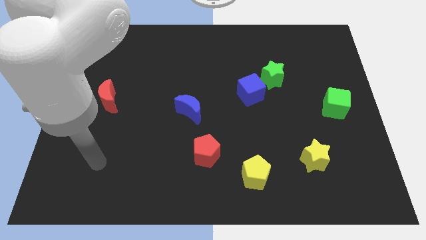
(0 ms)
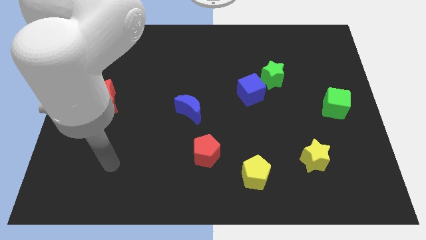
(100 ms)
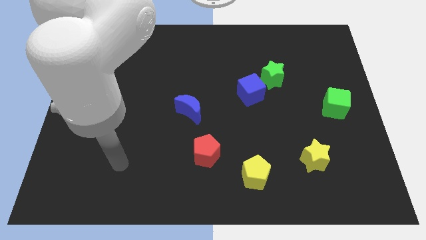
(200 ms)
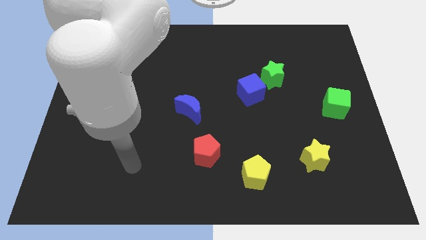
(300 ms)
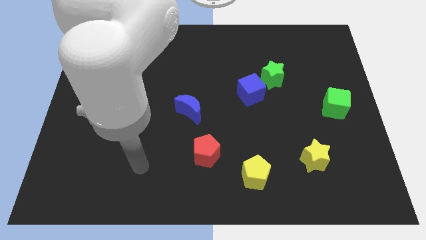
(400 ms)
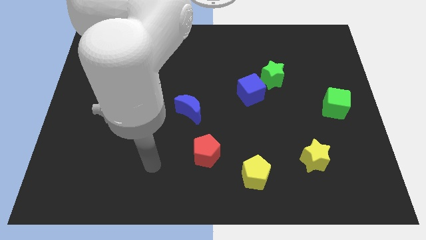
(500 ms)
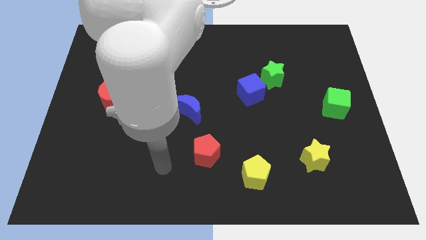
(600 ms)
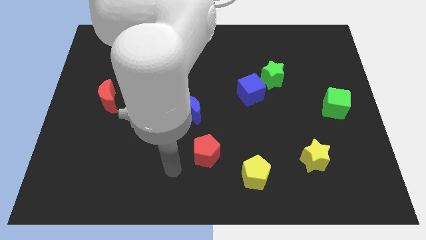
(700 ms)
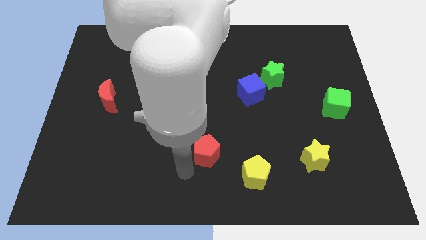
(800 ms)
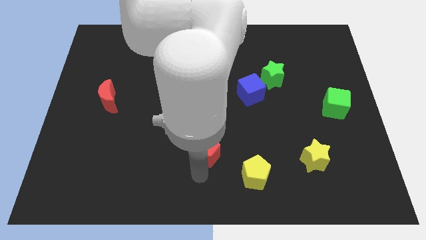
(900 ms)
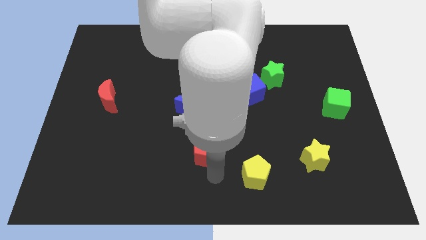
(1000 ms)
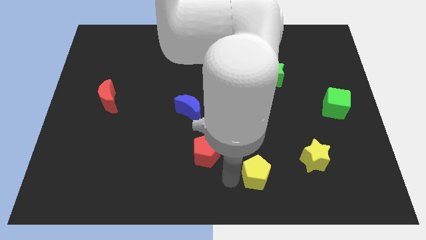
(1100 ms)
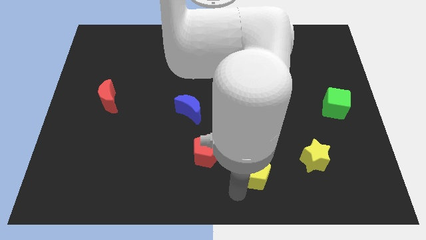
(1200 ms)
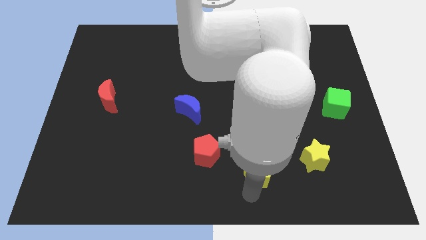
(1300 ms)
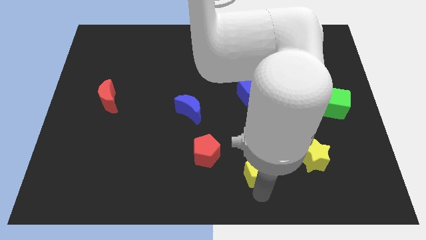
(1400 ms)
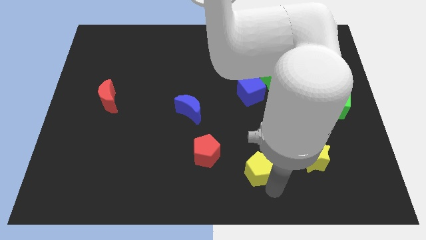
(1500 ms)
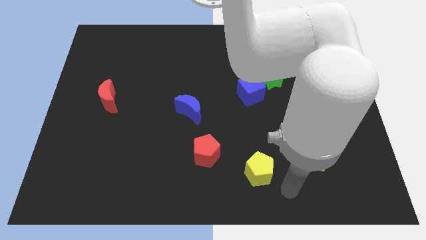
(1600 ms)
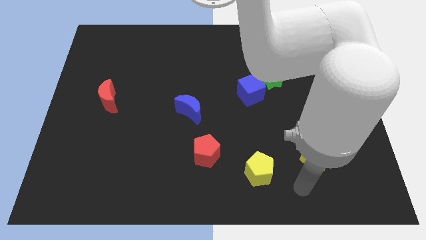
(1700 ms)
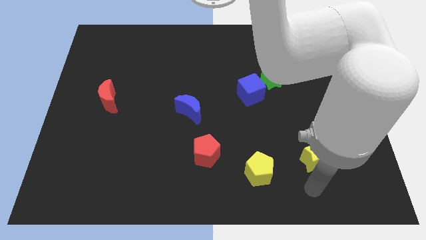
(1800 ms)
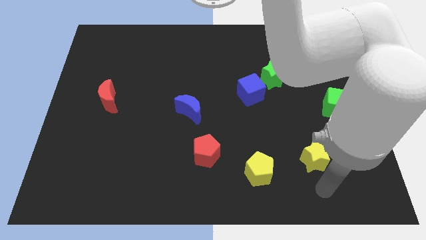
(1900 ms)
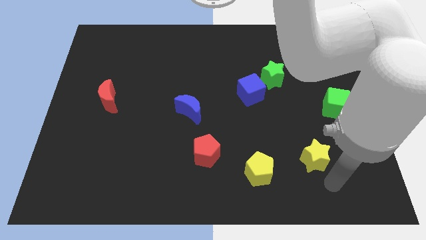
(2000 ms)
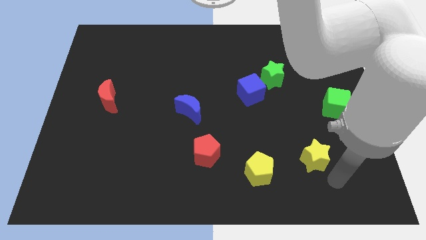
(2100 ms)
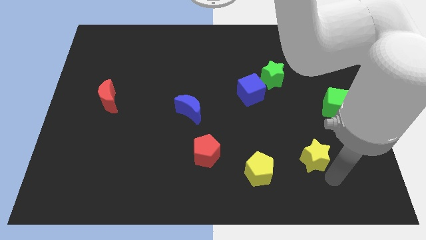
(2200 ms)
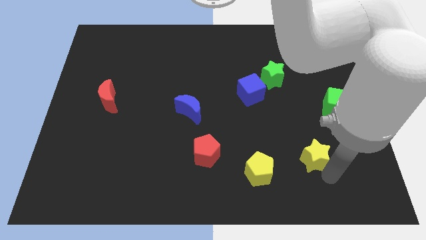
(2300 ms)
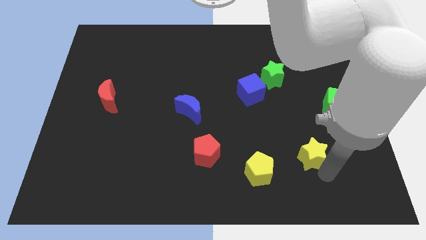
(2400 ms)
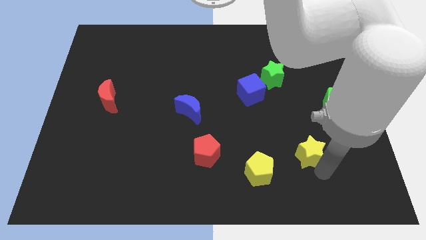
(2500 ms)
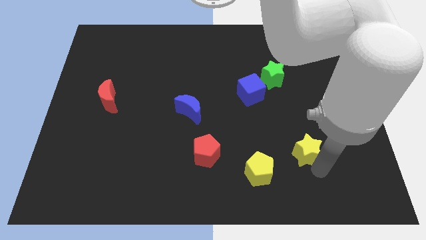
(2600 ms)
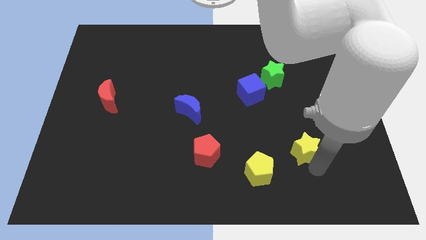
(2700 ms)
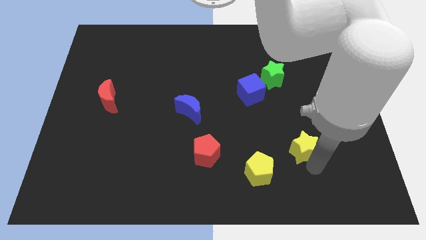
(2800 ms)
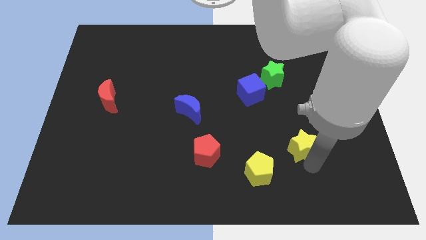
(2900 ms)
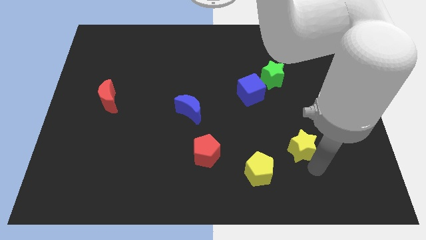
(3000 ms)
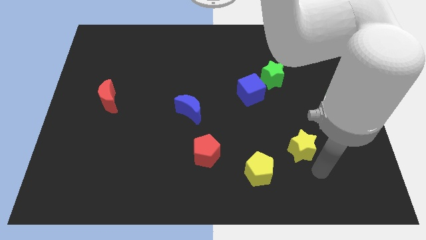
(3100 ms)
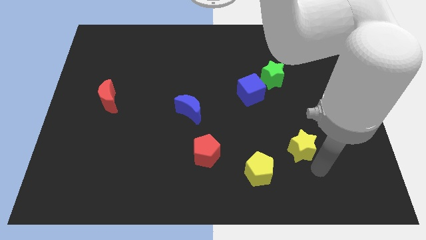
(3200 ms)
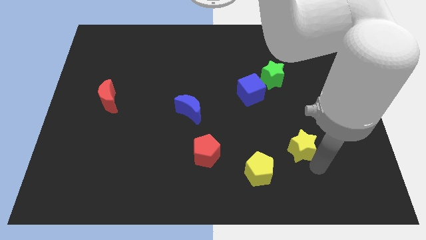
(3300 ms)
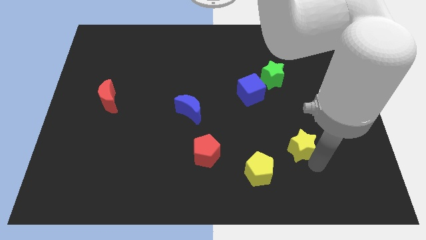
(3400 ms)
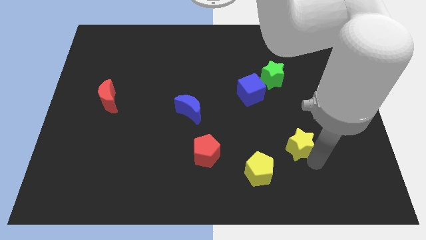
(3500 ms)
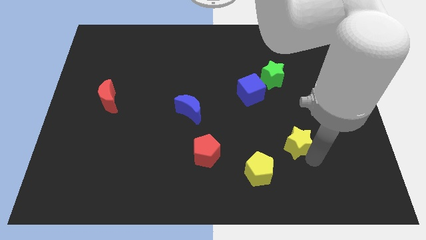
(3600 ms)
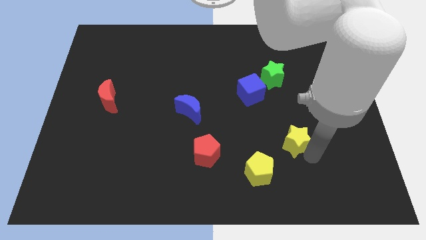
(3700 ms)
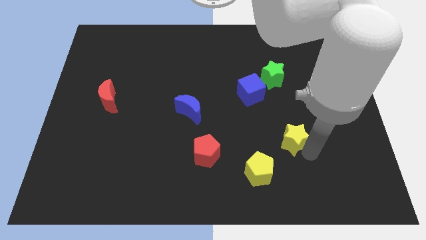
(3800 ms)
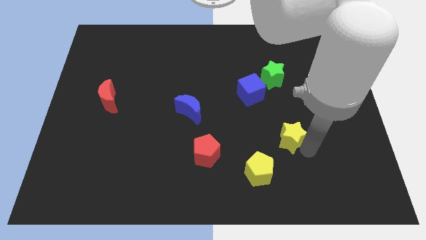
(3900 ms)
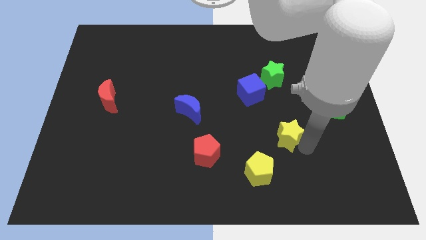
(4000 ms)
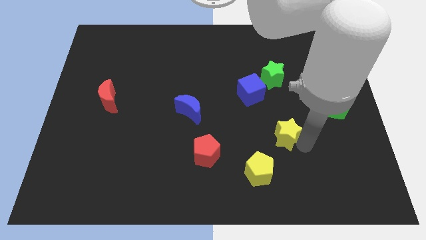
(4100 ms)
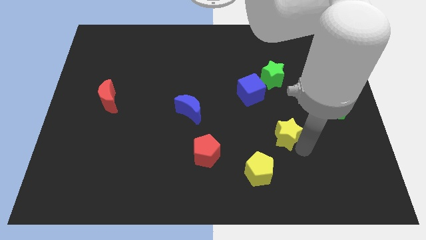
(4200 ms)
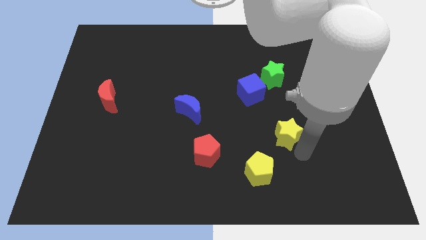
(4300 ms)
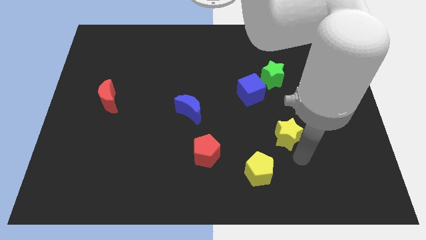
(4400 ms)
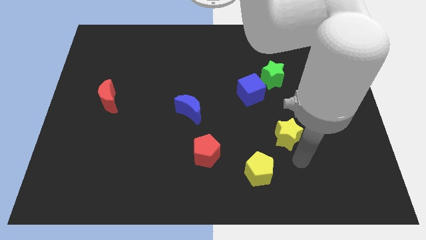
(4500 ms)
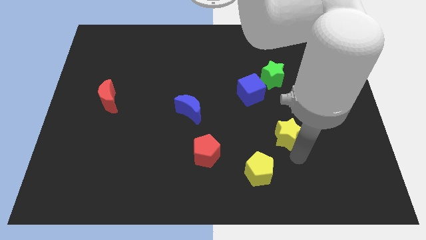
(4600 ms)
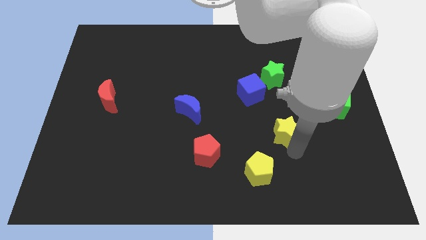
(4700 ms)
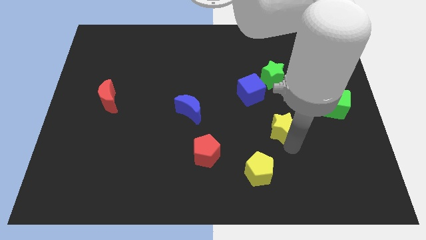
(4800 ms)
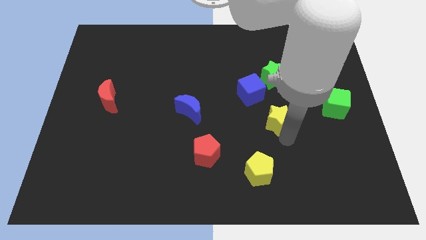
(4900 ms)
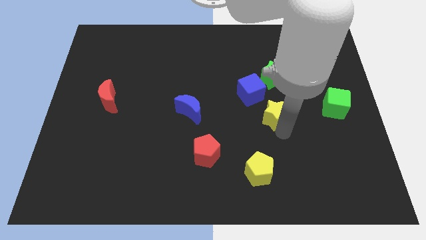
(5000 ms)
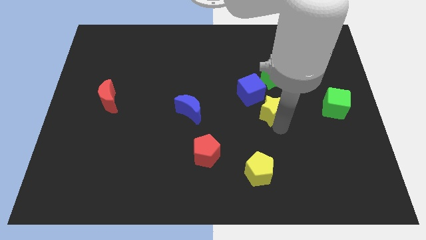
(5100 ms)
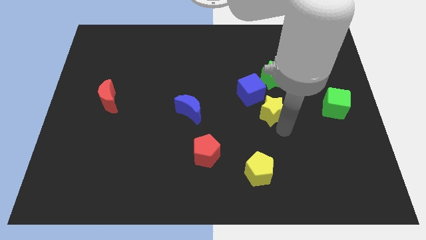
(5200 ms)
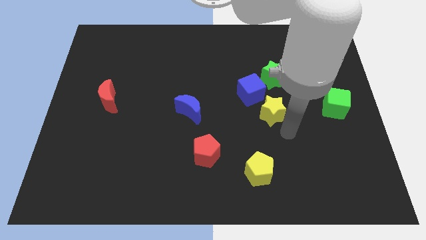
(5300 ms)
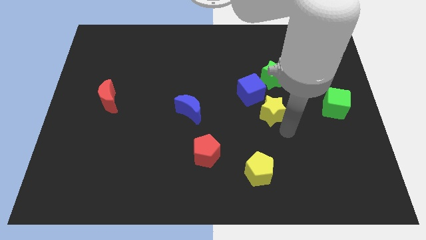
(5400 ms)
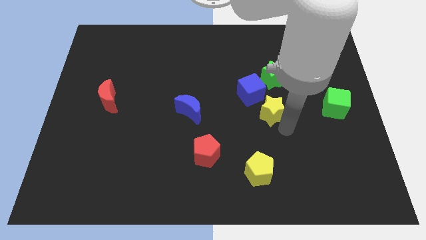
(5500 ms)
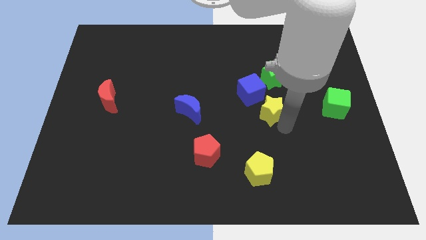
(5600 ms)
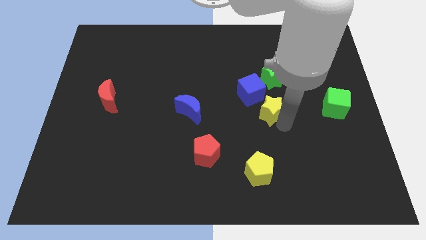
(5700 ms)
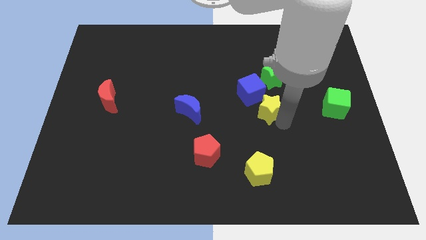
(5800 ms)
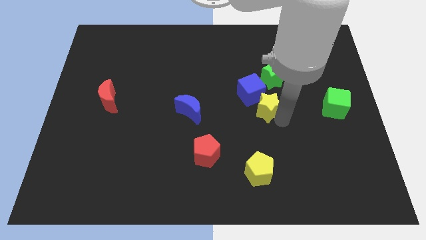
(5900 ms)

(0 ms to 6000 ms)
put the yellow star close to the blue cube
